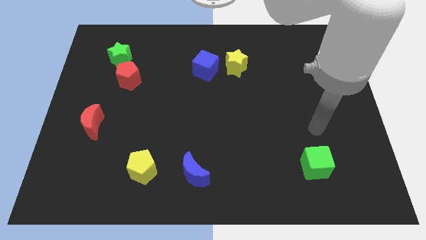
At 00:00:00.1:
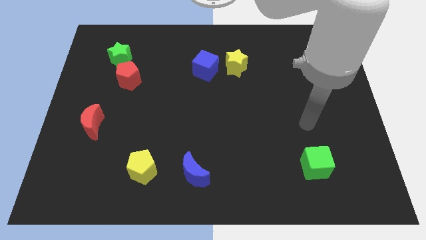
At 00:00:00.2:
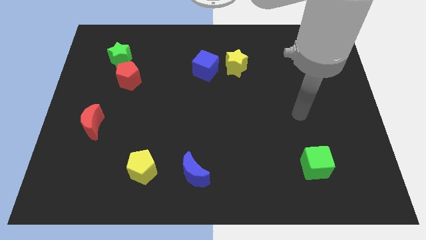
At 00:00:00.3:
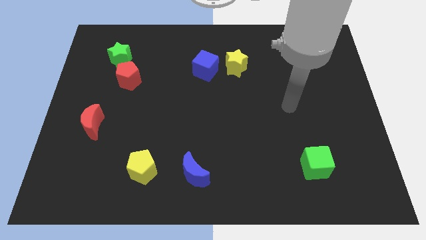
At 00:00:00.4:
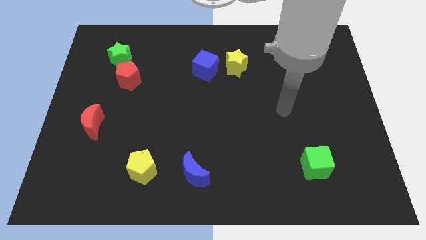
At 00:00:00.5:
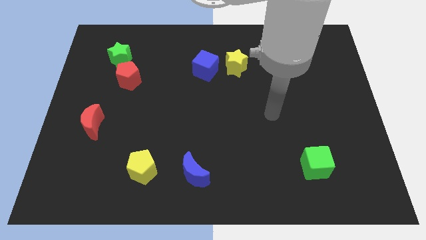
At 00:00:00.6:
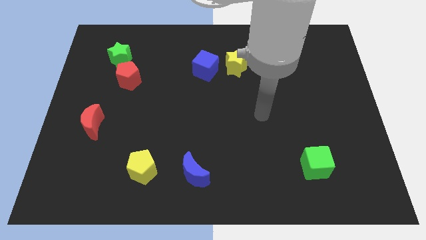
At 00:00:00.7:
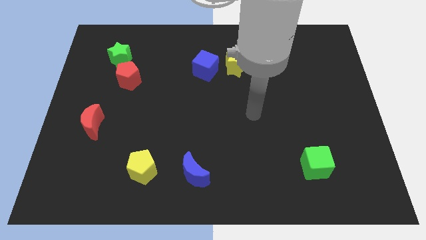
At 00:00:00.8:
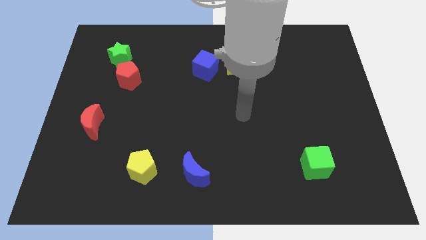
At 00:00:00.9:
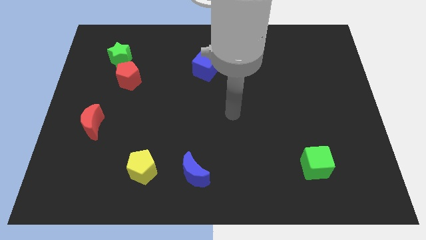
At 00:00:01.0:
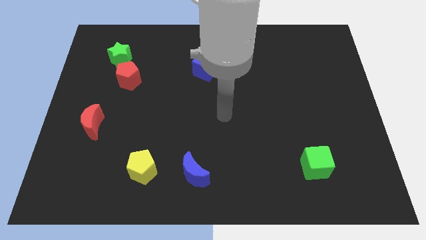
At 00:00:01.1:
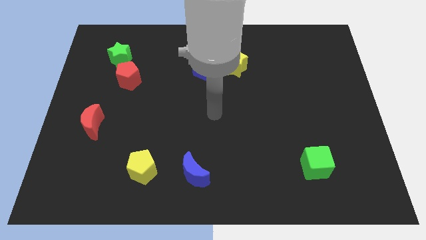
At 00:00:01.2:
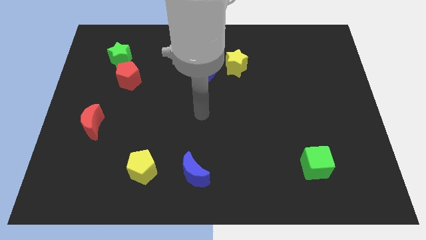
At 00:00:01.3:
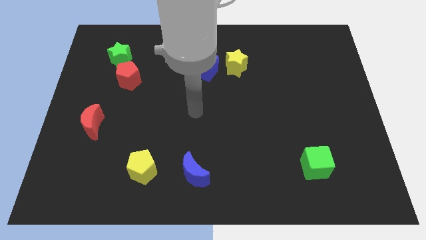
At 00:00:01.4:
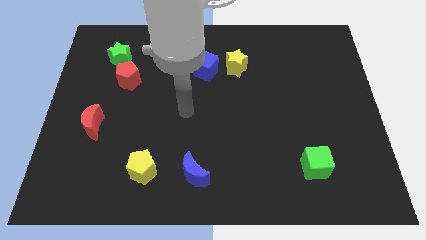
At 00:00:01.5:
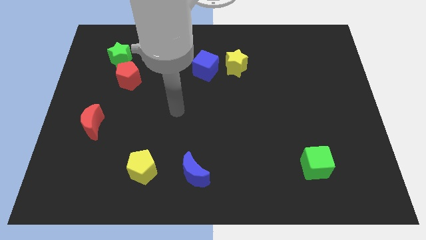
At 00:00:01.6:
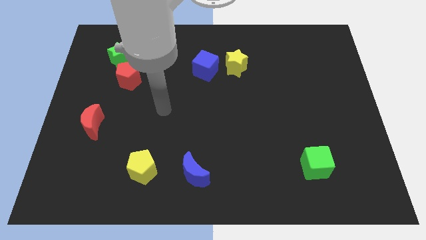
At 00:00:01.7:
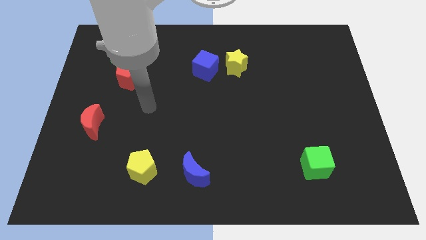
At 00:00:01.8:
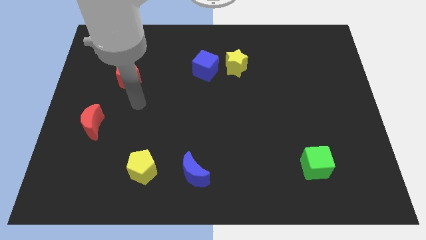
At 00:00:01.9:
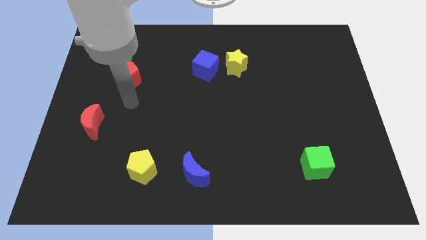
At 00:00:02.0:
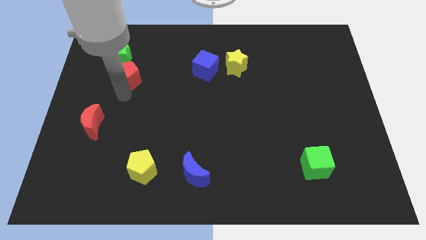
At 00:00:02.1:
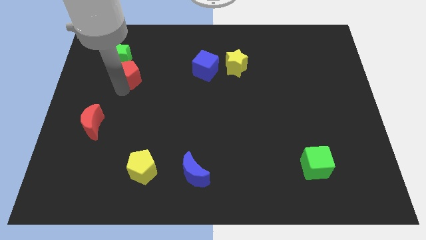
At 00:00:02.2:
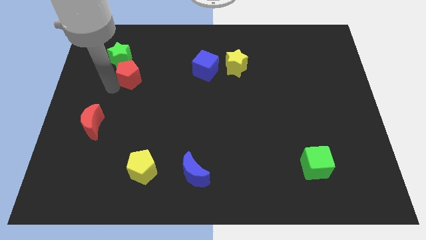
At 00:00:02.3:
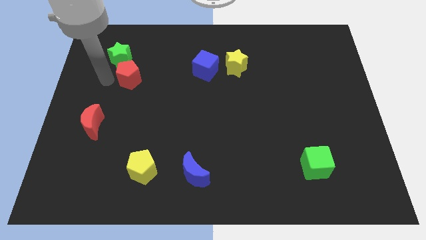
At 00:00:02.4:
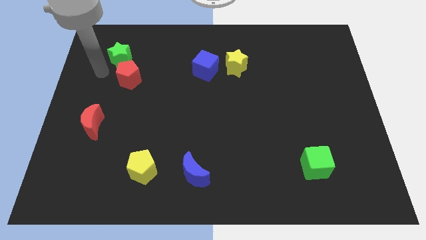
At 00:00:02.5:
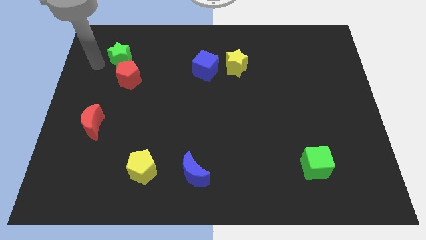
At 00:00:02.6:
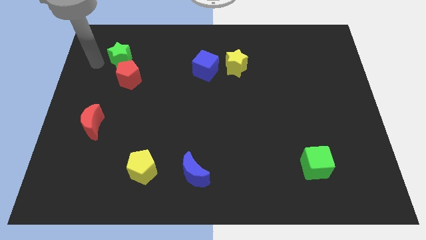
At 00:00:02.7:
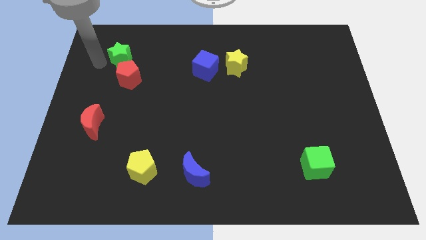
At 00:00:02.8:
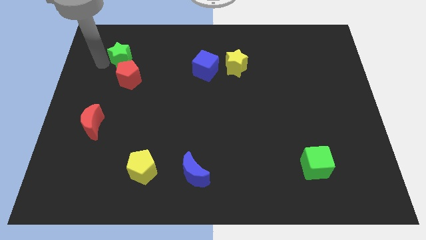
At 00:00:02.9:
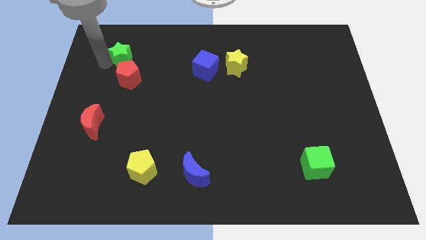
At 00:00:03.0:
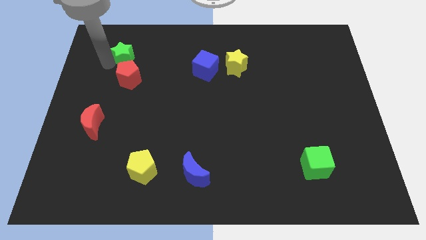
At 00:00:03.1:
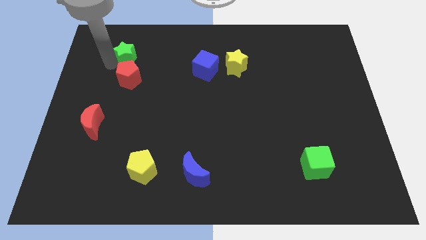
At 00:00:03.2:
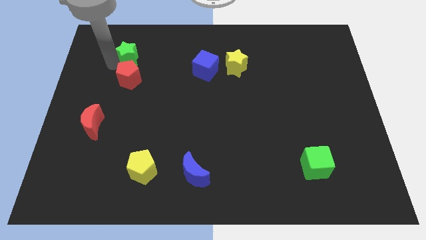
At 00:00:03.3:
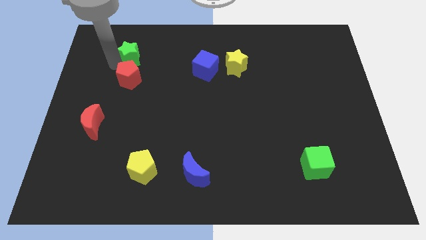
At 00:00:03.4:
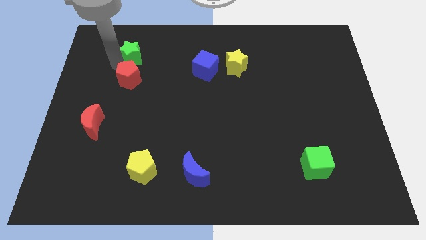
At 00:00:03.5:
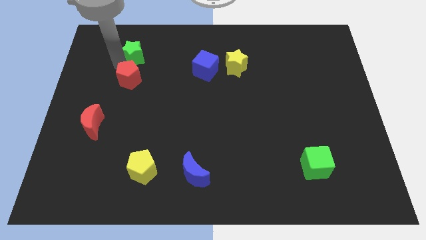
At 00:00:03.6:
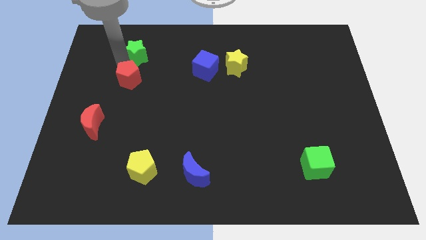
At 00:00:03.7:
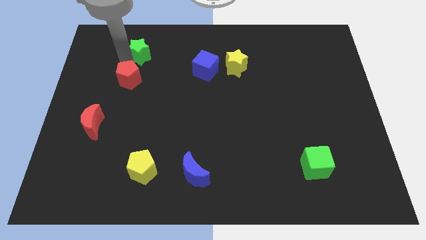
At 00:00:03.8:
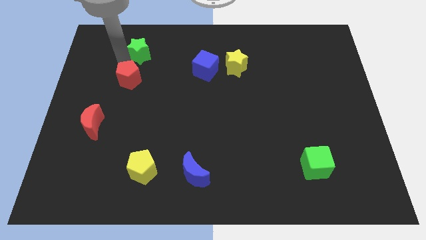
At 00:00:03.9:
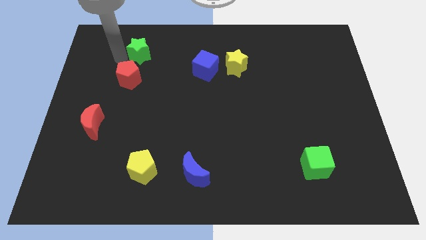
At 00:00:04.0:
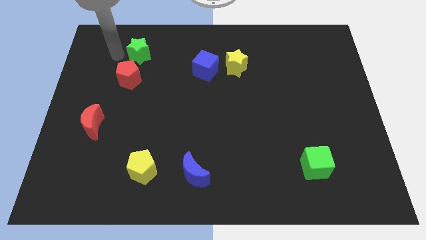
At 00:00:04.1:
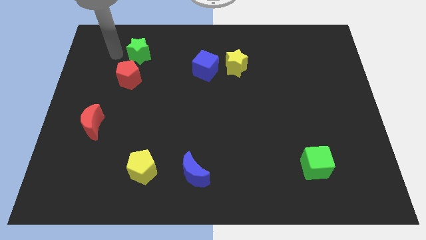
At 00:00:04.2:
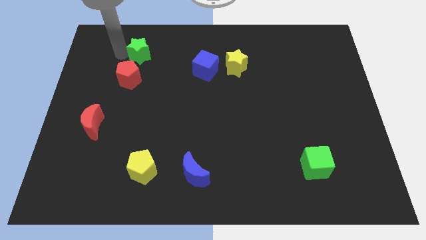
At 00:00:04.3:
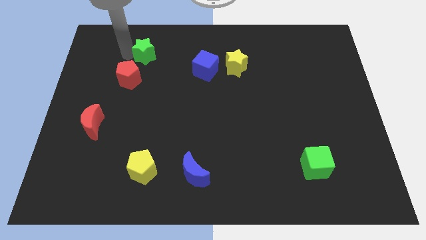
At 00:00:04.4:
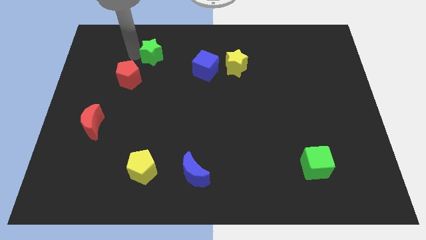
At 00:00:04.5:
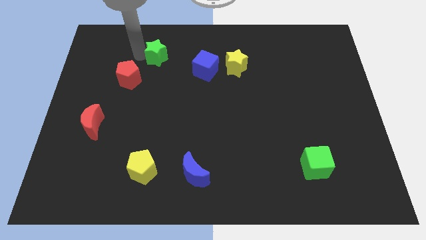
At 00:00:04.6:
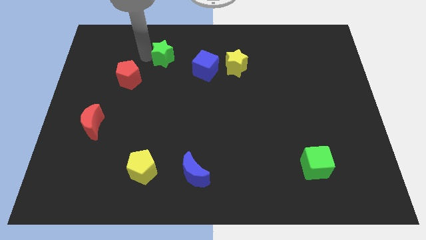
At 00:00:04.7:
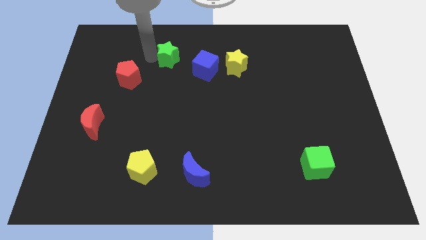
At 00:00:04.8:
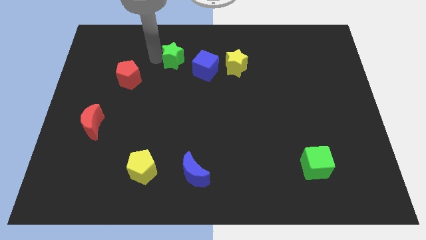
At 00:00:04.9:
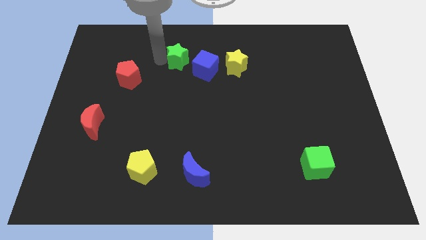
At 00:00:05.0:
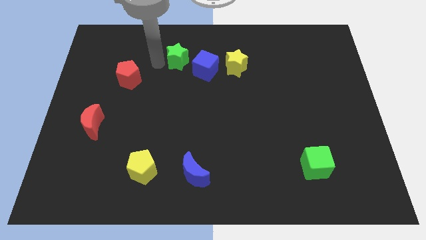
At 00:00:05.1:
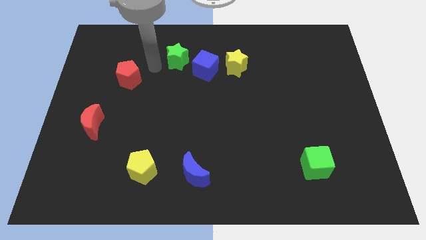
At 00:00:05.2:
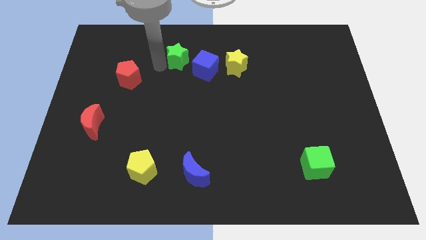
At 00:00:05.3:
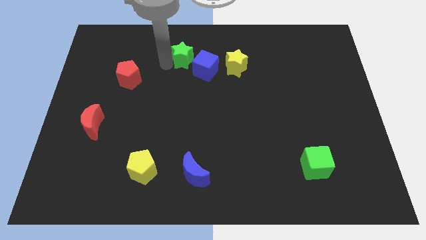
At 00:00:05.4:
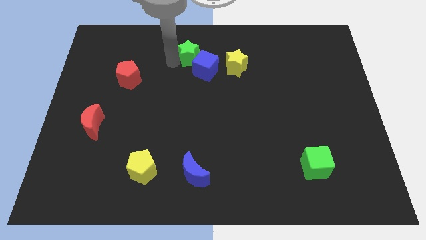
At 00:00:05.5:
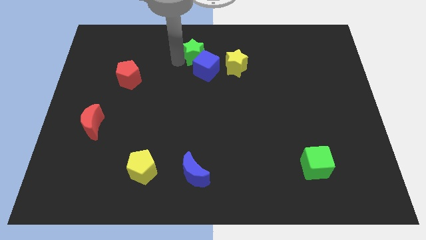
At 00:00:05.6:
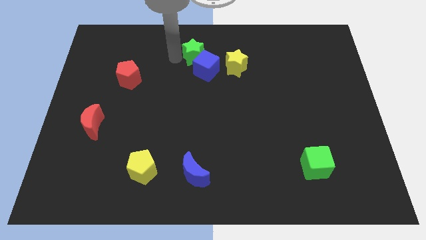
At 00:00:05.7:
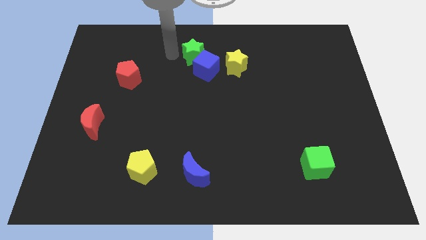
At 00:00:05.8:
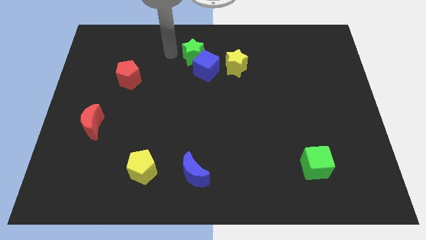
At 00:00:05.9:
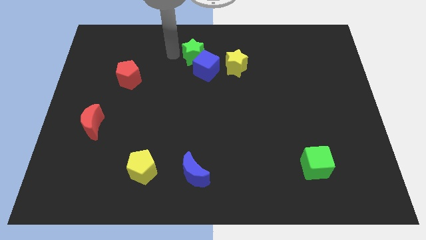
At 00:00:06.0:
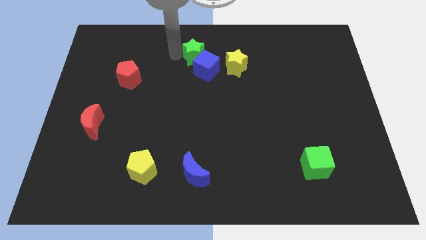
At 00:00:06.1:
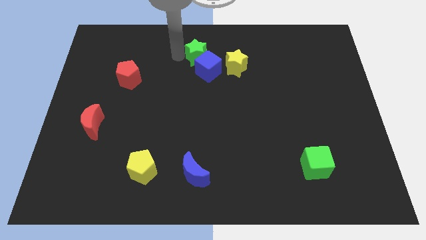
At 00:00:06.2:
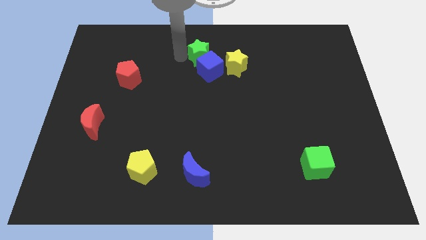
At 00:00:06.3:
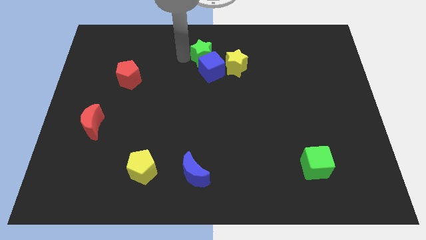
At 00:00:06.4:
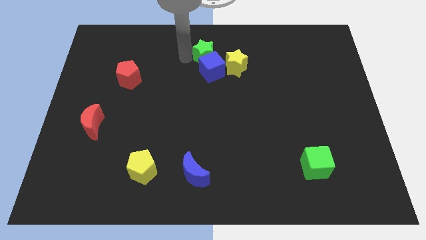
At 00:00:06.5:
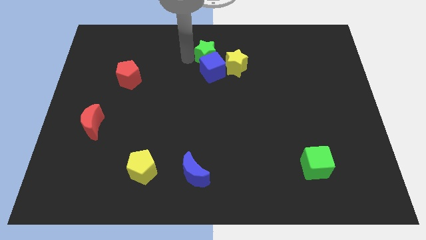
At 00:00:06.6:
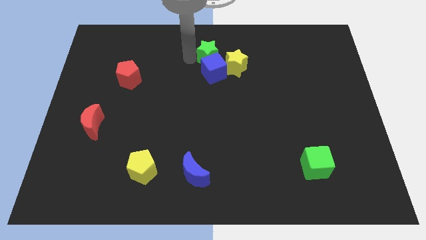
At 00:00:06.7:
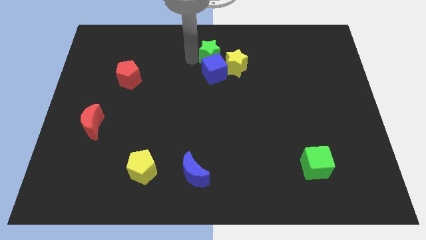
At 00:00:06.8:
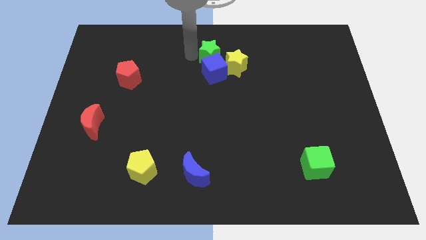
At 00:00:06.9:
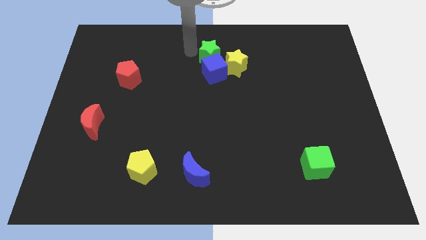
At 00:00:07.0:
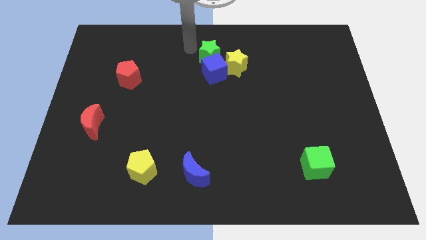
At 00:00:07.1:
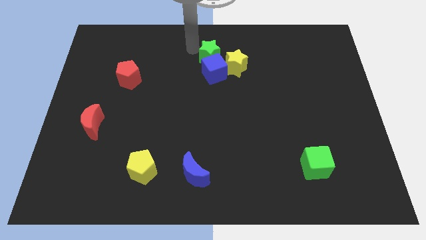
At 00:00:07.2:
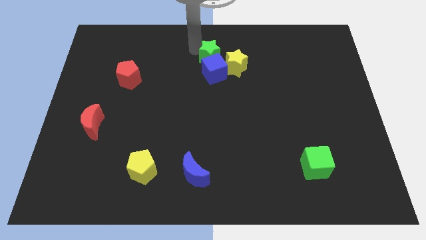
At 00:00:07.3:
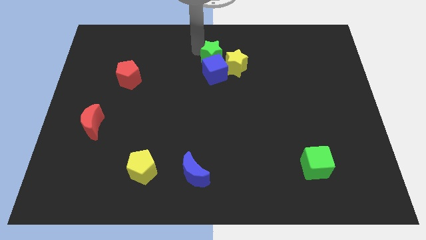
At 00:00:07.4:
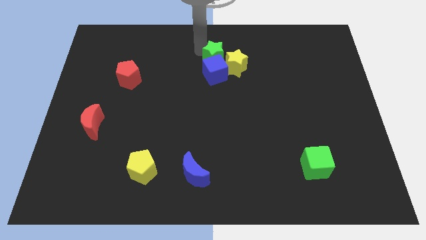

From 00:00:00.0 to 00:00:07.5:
slide the green star next to the yellow star
